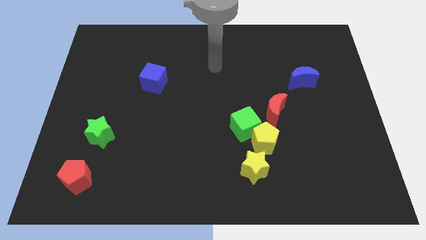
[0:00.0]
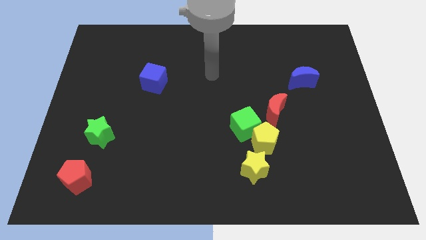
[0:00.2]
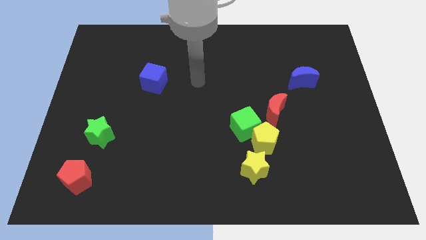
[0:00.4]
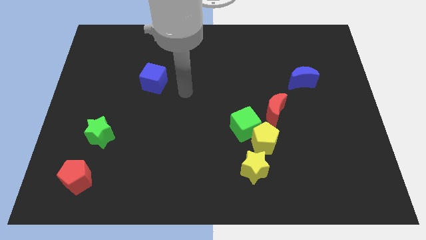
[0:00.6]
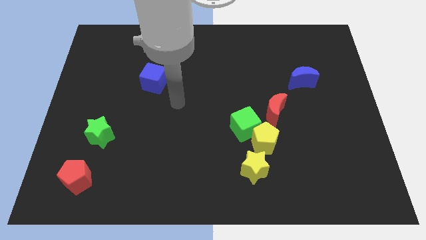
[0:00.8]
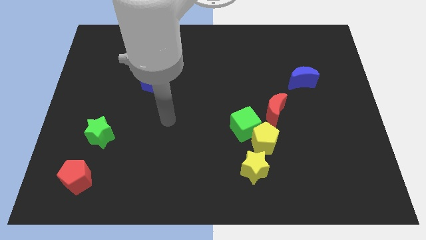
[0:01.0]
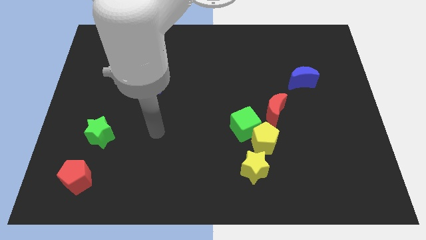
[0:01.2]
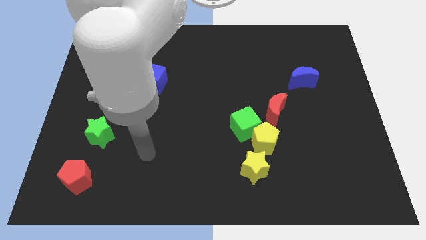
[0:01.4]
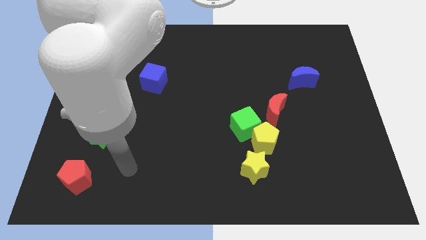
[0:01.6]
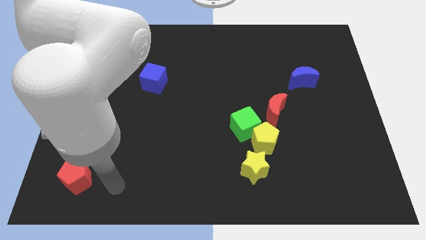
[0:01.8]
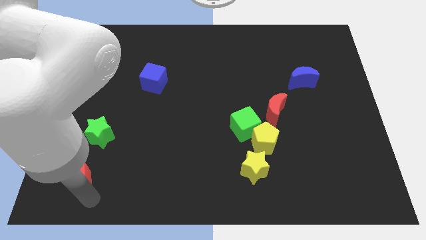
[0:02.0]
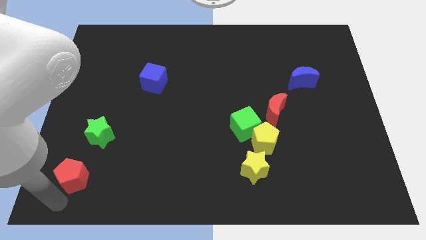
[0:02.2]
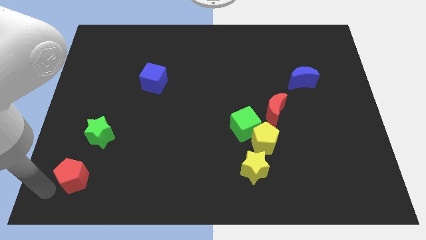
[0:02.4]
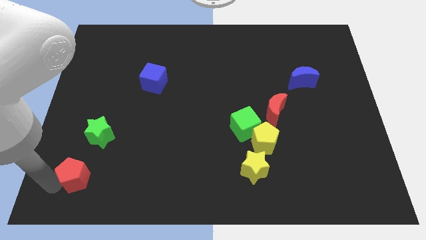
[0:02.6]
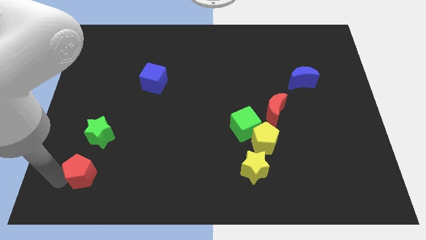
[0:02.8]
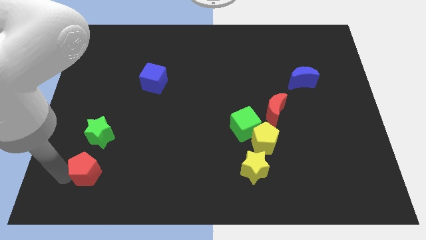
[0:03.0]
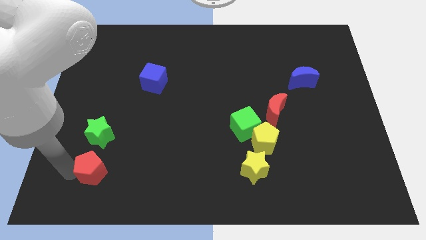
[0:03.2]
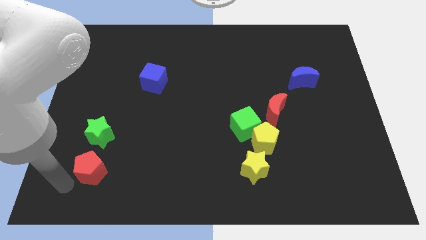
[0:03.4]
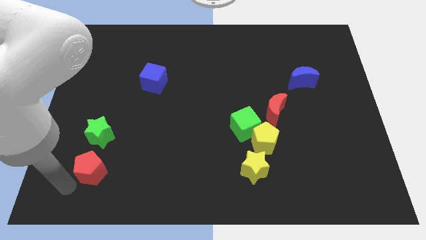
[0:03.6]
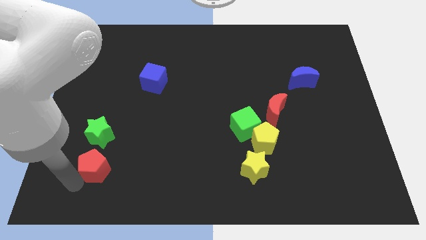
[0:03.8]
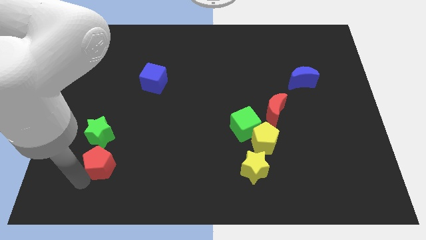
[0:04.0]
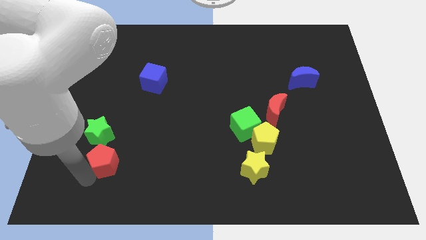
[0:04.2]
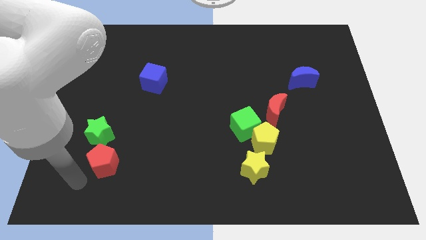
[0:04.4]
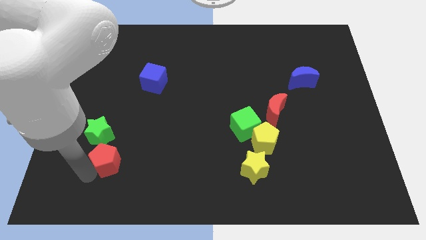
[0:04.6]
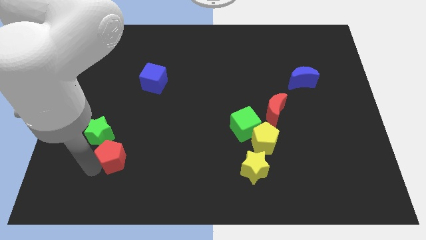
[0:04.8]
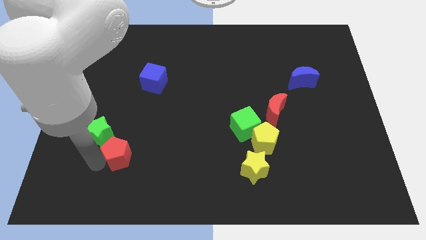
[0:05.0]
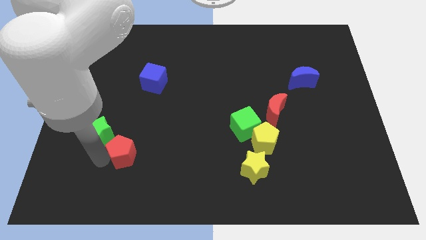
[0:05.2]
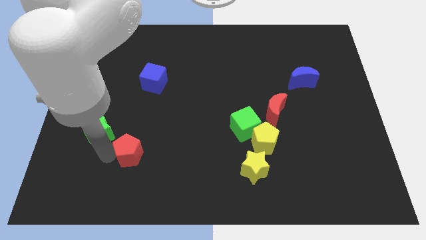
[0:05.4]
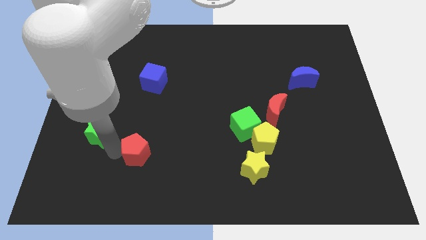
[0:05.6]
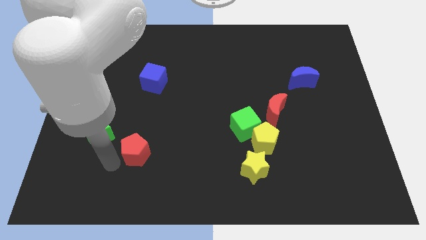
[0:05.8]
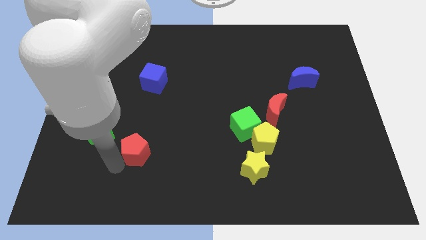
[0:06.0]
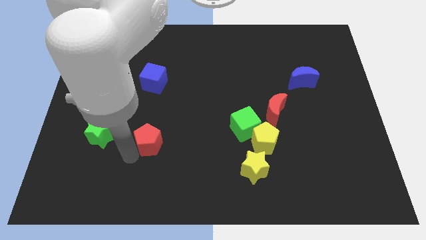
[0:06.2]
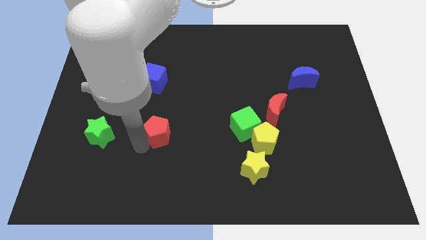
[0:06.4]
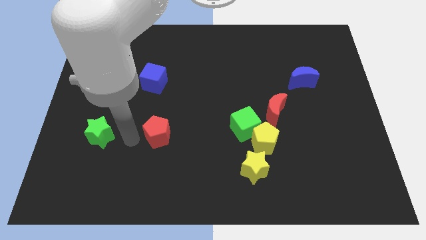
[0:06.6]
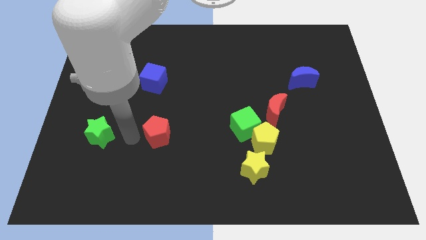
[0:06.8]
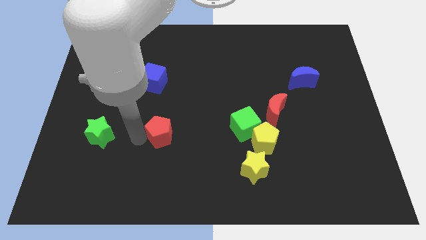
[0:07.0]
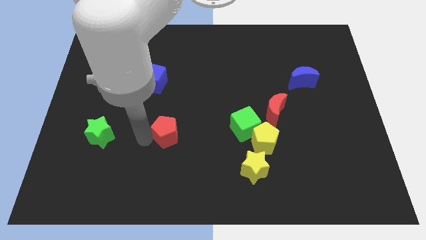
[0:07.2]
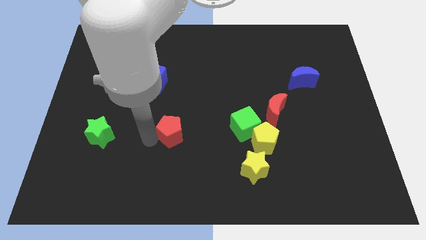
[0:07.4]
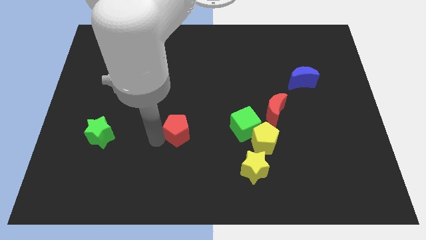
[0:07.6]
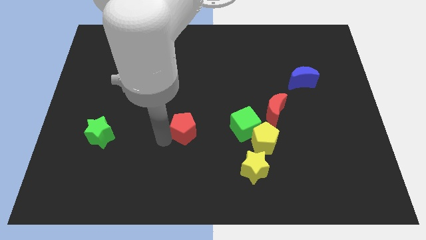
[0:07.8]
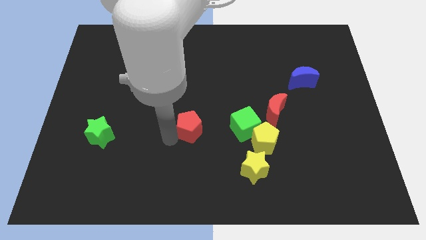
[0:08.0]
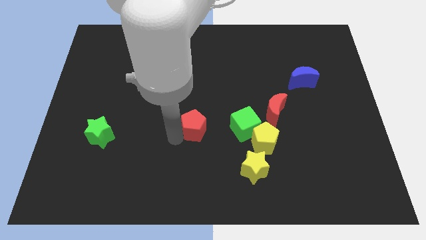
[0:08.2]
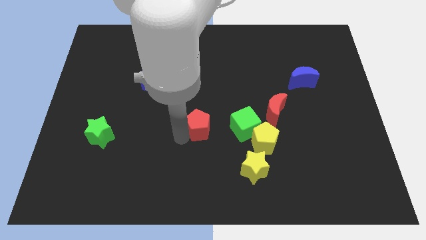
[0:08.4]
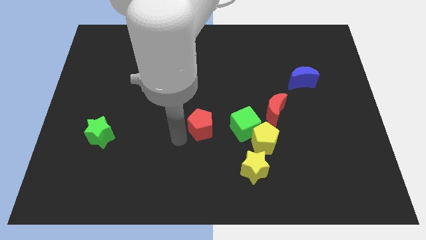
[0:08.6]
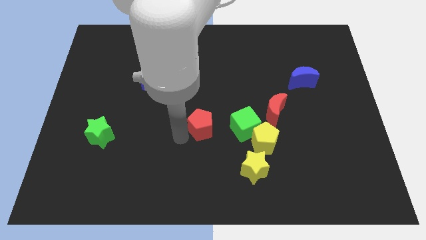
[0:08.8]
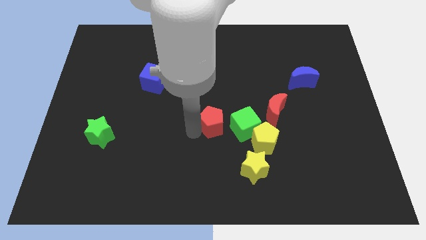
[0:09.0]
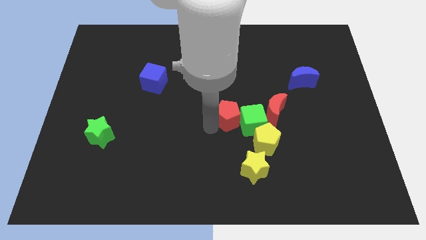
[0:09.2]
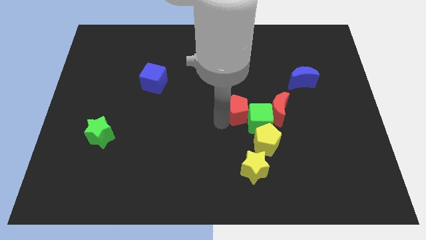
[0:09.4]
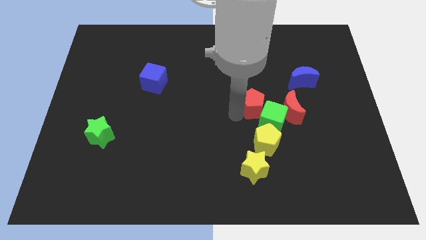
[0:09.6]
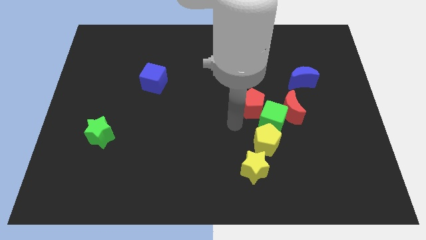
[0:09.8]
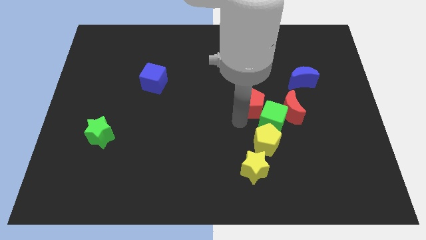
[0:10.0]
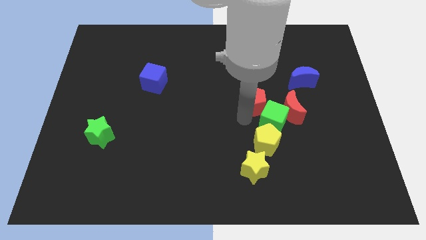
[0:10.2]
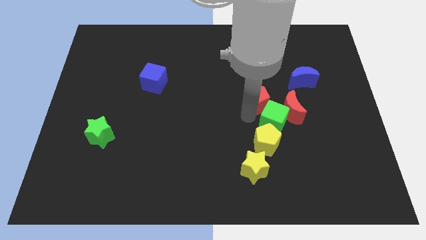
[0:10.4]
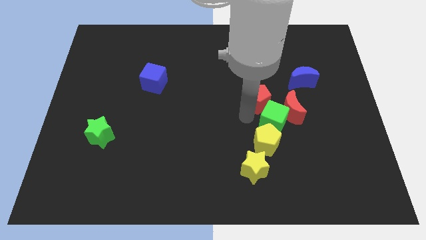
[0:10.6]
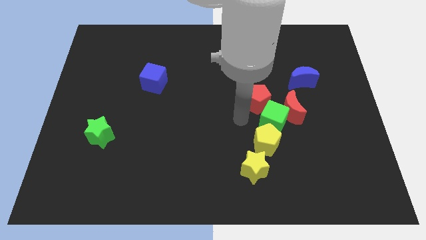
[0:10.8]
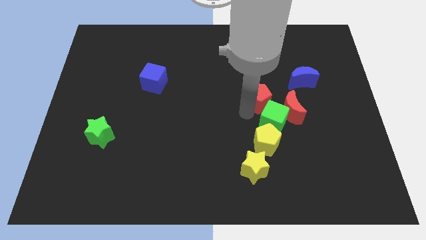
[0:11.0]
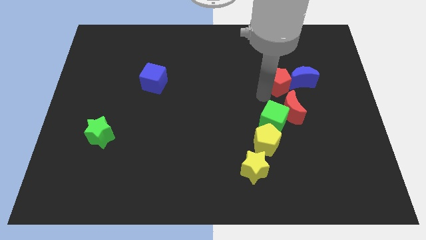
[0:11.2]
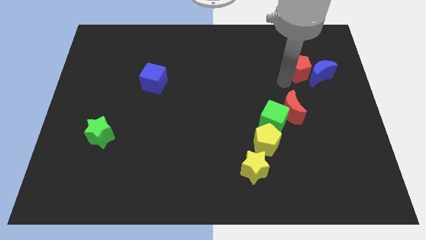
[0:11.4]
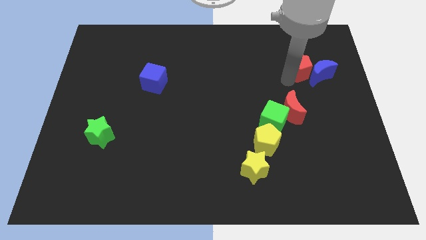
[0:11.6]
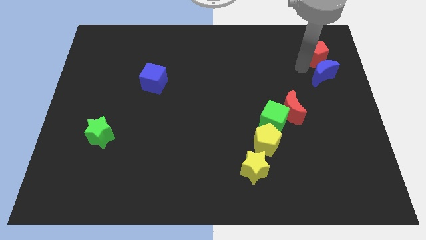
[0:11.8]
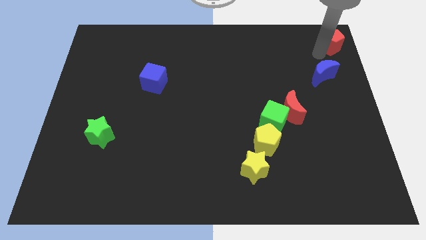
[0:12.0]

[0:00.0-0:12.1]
move the red pentagon to the upper right corner
